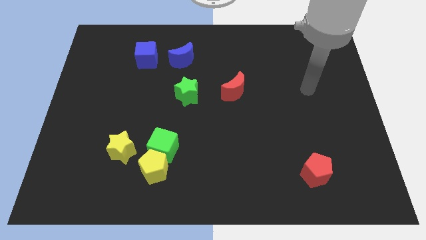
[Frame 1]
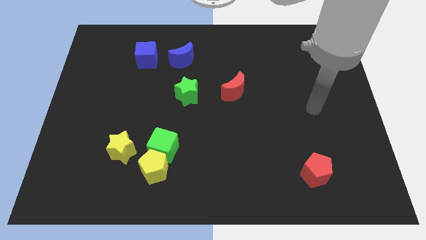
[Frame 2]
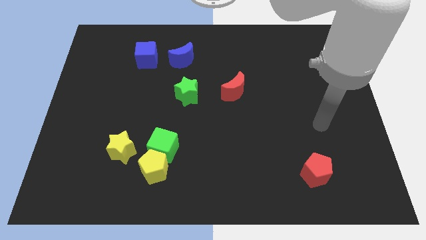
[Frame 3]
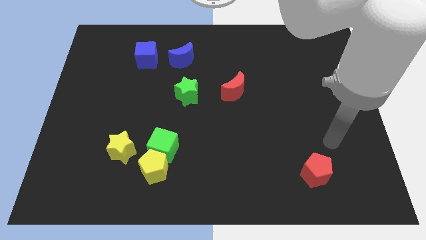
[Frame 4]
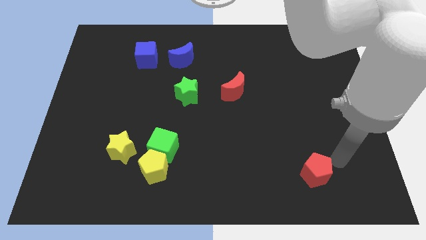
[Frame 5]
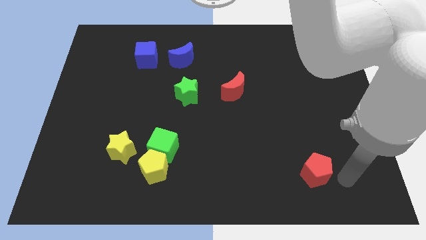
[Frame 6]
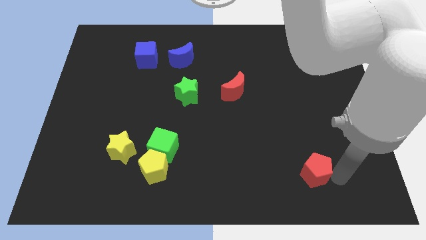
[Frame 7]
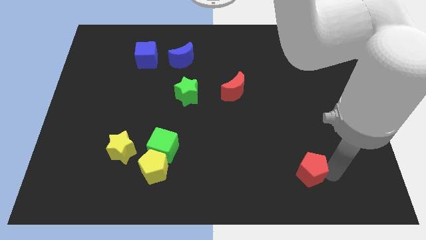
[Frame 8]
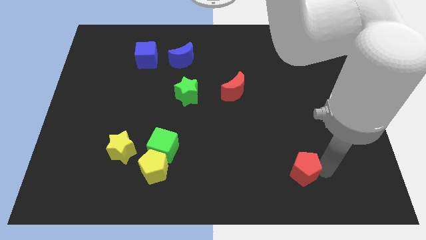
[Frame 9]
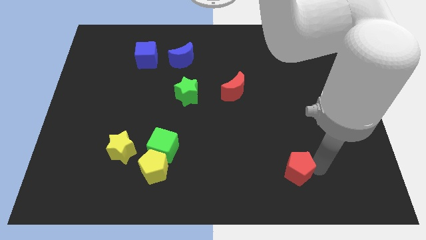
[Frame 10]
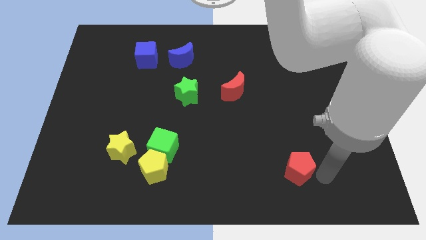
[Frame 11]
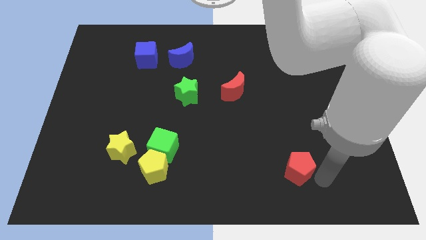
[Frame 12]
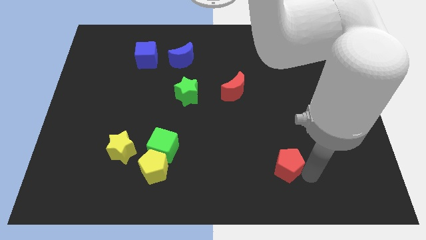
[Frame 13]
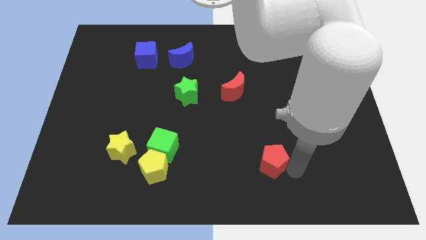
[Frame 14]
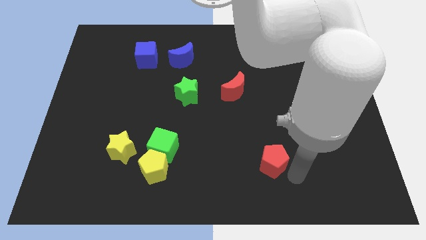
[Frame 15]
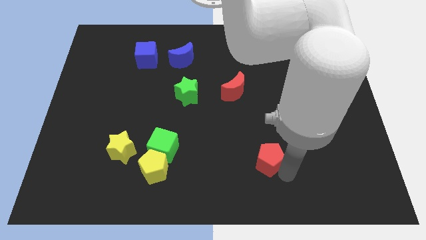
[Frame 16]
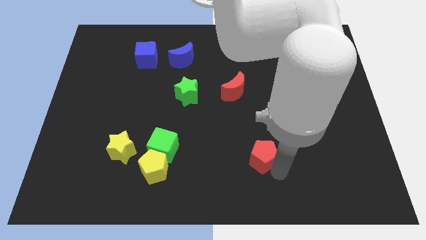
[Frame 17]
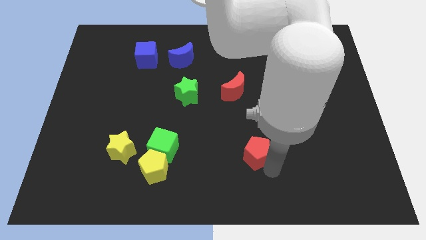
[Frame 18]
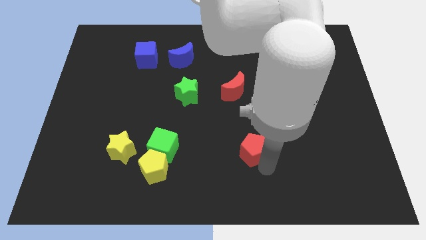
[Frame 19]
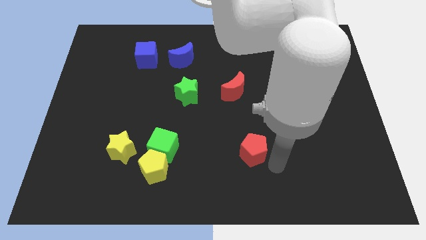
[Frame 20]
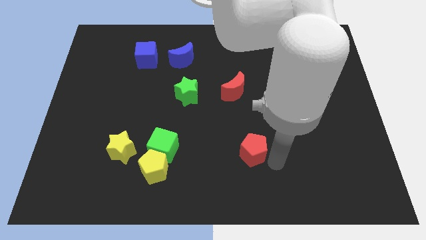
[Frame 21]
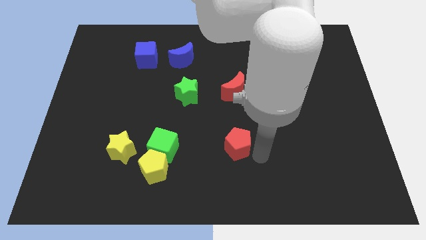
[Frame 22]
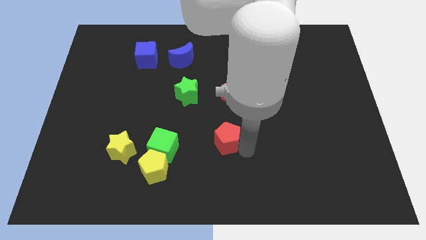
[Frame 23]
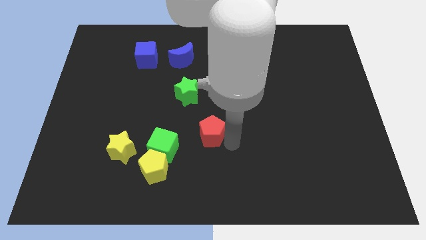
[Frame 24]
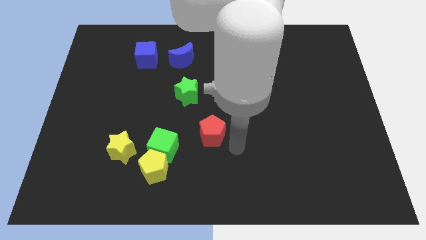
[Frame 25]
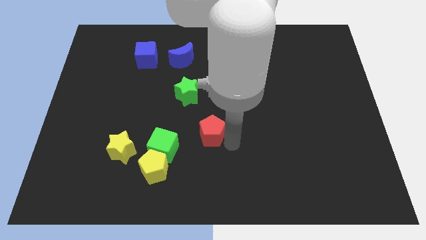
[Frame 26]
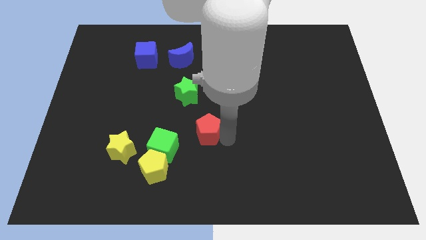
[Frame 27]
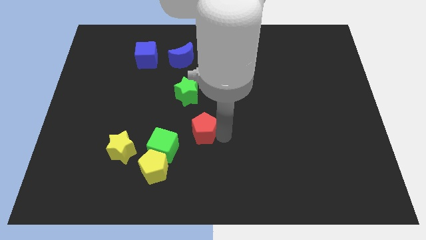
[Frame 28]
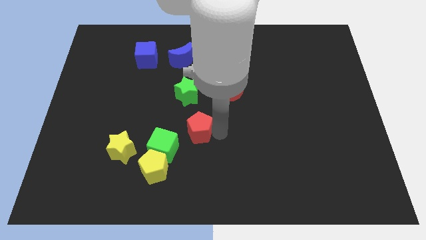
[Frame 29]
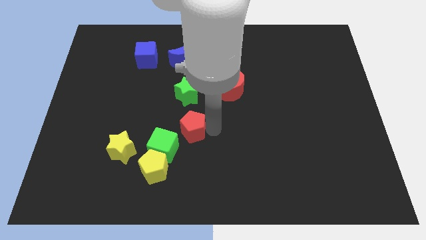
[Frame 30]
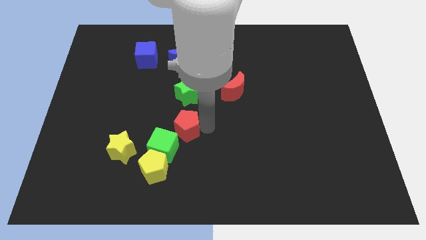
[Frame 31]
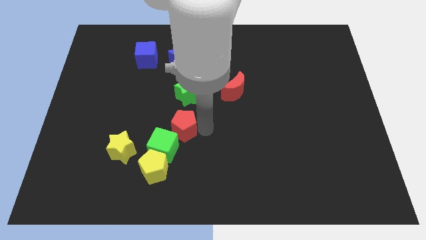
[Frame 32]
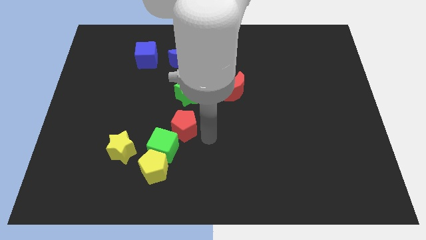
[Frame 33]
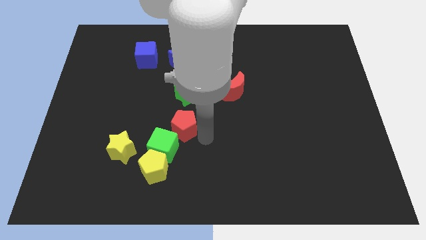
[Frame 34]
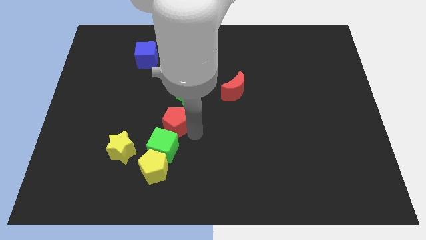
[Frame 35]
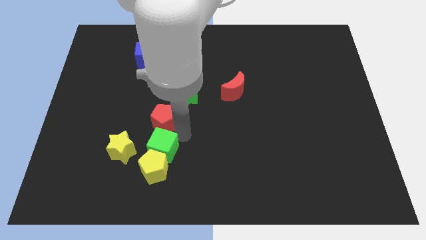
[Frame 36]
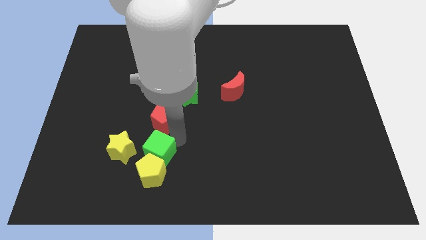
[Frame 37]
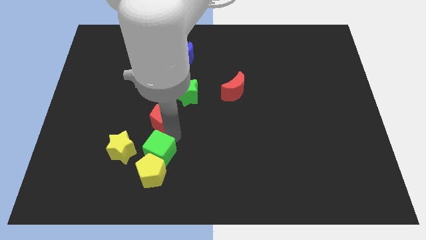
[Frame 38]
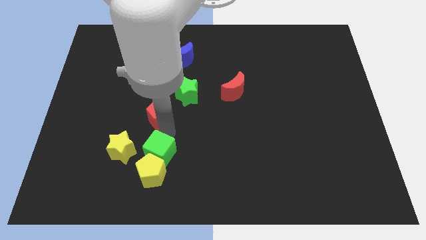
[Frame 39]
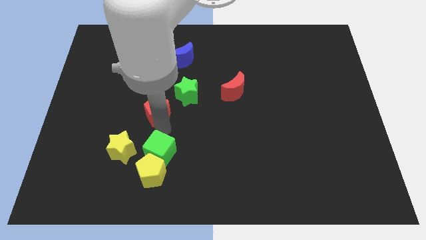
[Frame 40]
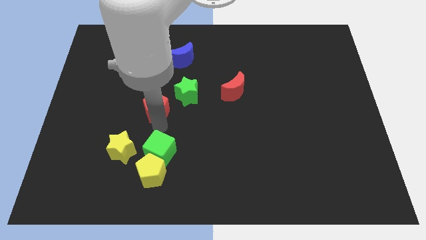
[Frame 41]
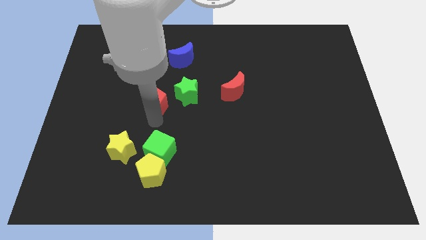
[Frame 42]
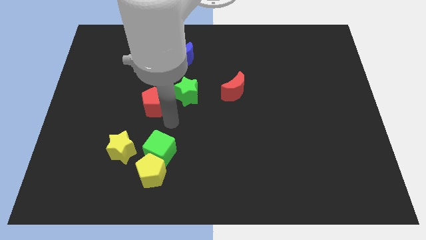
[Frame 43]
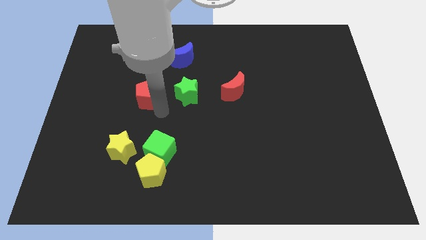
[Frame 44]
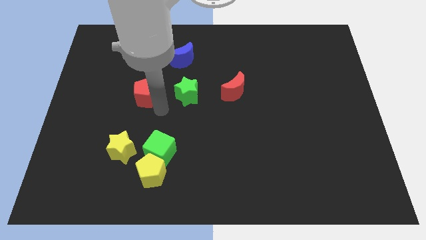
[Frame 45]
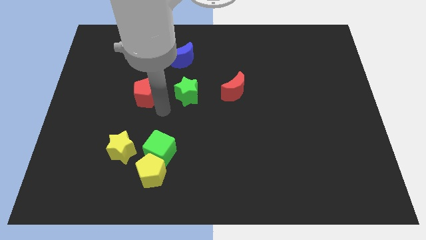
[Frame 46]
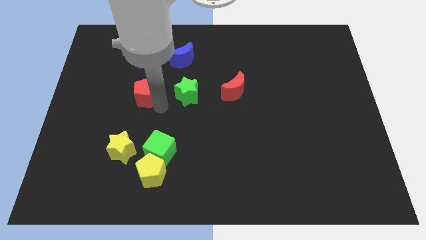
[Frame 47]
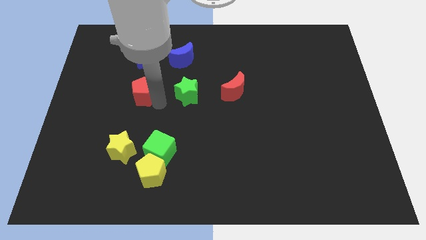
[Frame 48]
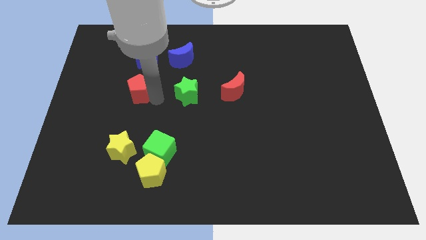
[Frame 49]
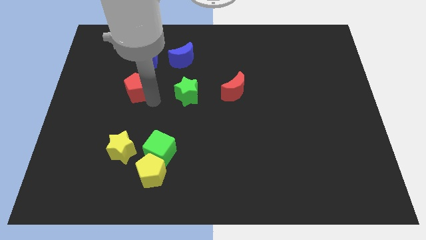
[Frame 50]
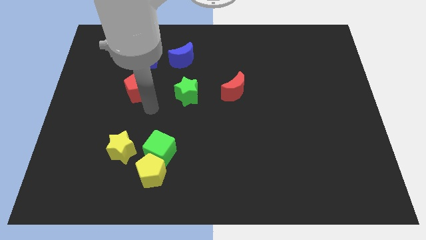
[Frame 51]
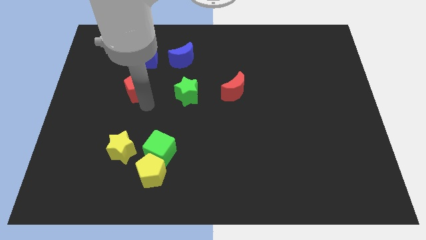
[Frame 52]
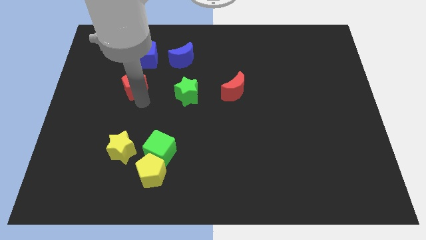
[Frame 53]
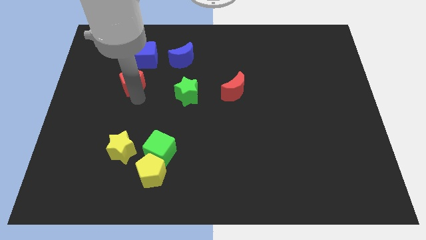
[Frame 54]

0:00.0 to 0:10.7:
move the red pentagon diagonally down and to the left of the blue cube

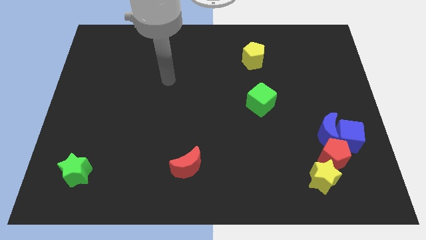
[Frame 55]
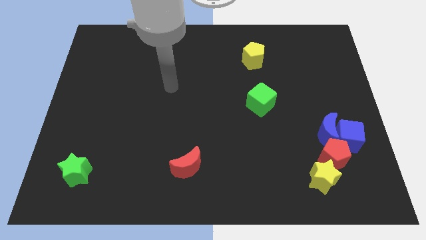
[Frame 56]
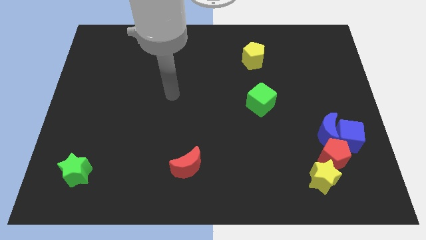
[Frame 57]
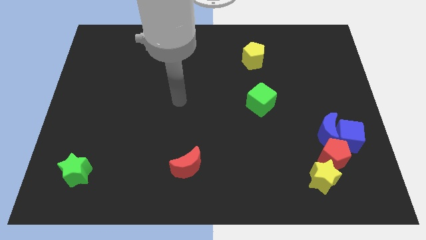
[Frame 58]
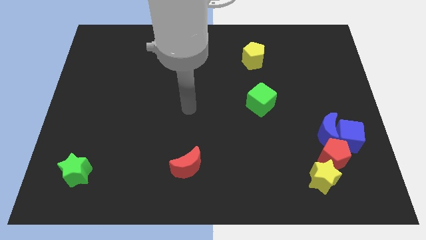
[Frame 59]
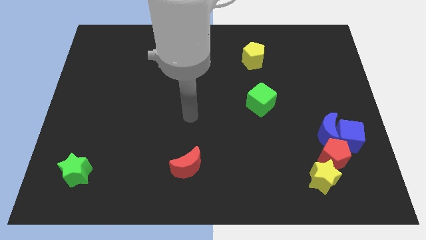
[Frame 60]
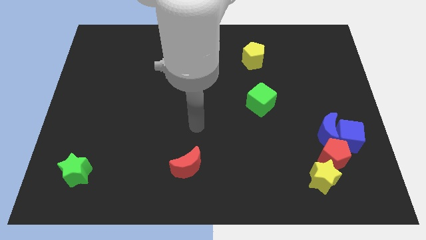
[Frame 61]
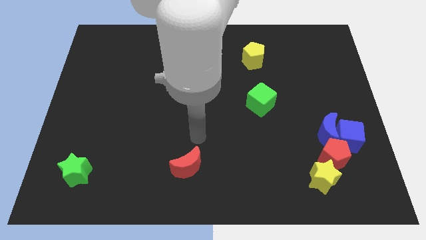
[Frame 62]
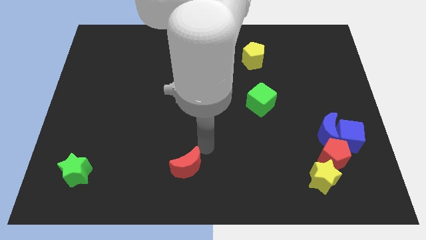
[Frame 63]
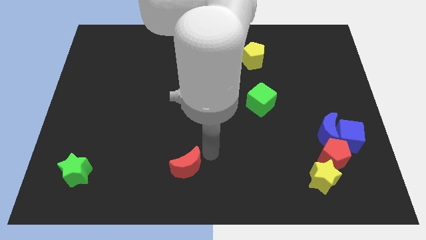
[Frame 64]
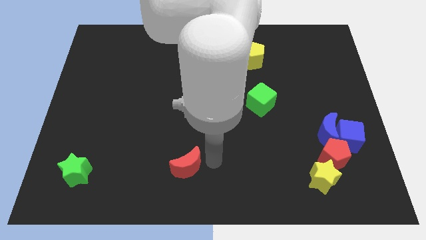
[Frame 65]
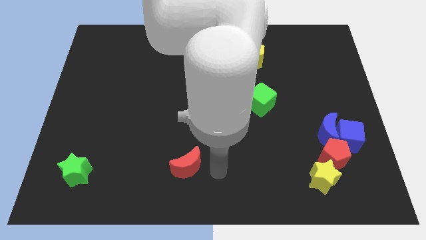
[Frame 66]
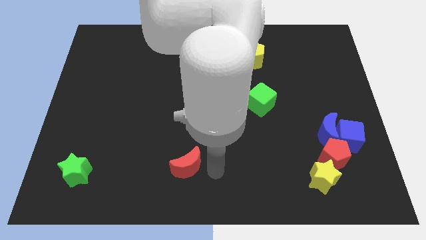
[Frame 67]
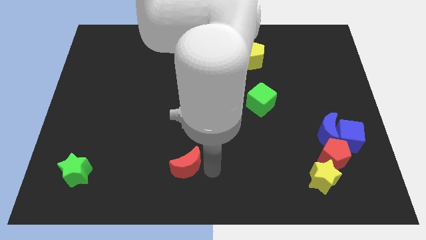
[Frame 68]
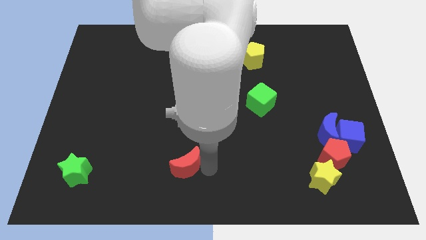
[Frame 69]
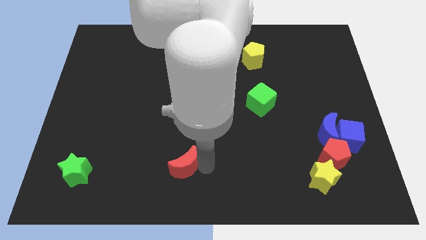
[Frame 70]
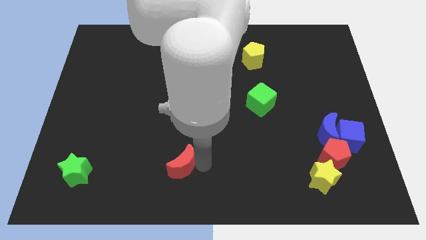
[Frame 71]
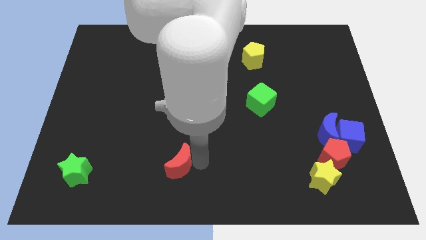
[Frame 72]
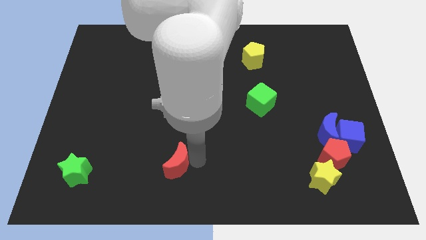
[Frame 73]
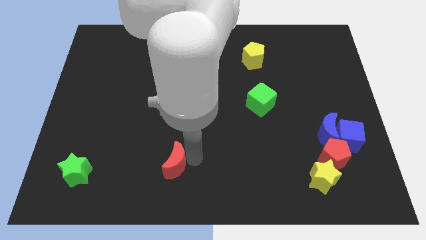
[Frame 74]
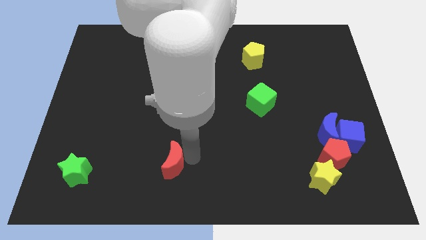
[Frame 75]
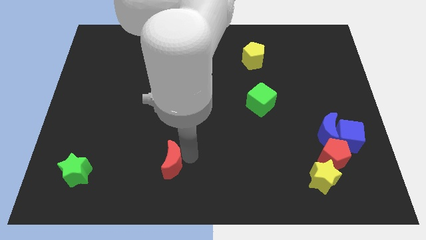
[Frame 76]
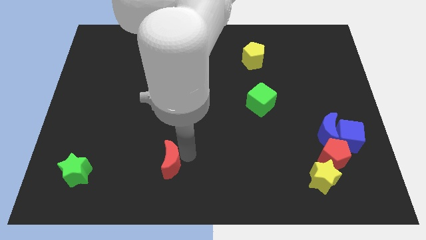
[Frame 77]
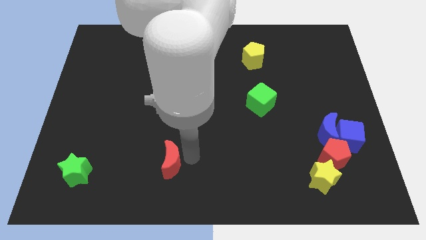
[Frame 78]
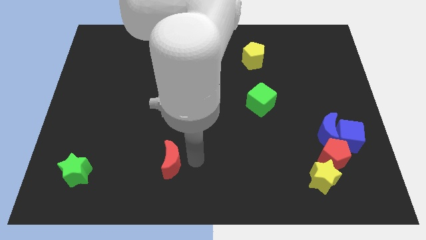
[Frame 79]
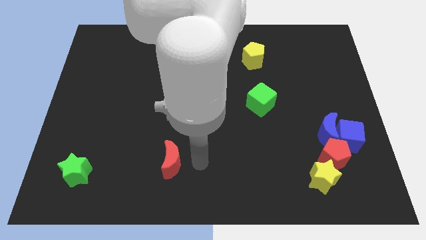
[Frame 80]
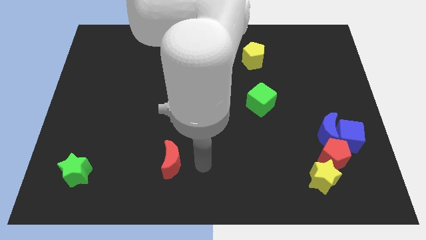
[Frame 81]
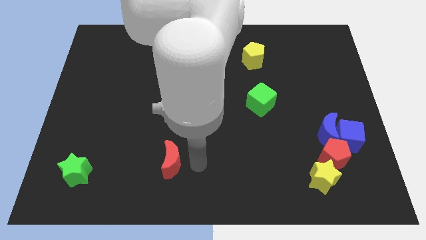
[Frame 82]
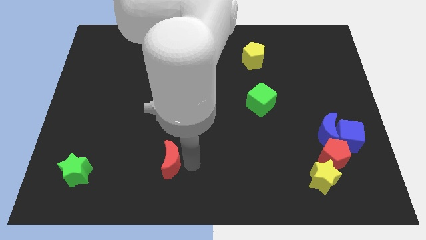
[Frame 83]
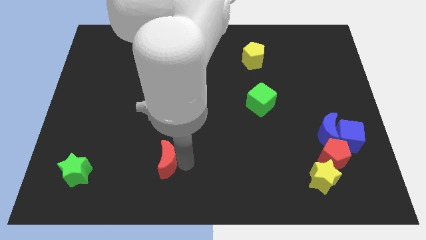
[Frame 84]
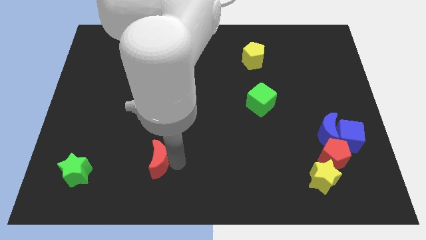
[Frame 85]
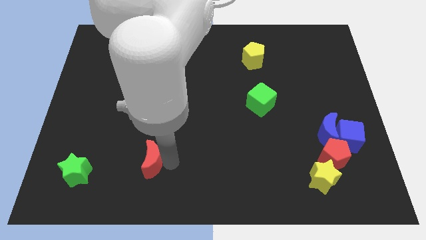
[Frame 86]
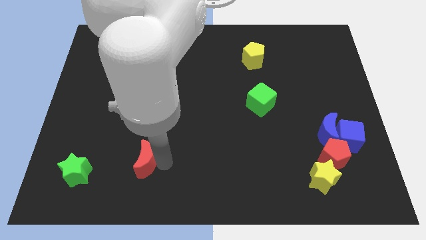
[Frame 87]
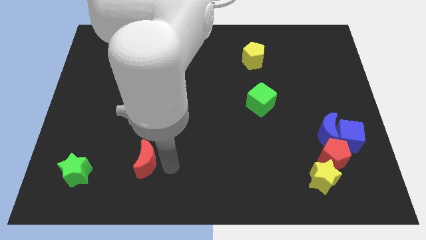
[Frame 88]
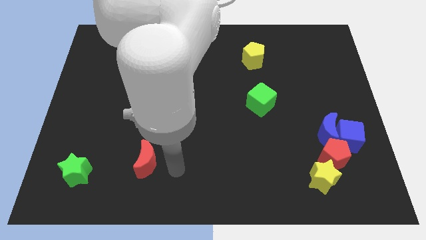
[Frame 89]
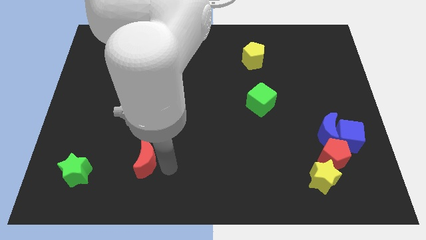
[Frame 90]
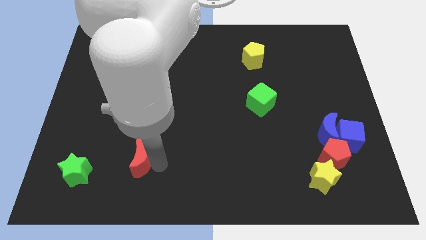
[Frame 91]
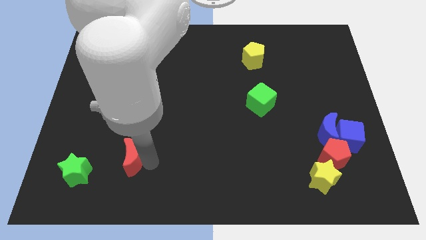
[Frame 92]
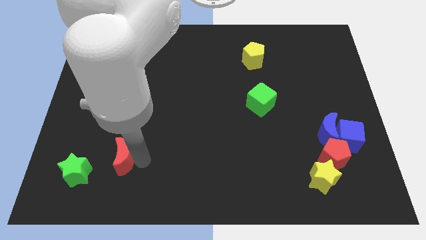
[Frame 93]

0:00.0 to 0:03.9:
push the red moon diagonally up and to the right of the green star
